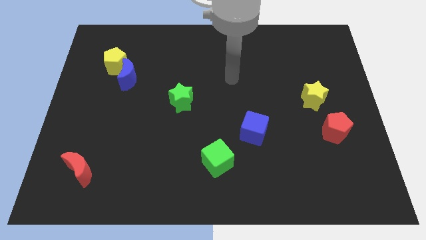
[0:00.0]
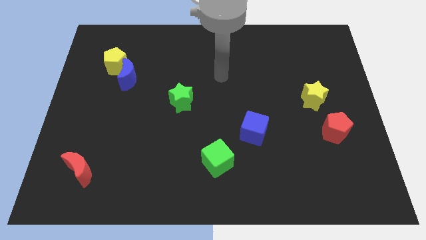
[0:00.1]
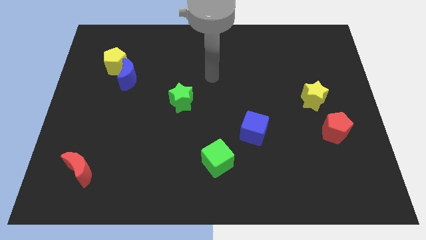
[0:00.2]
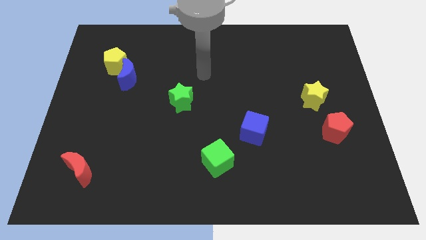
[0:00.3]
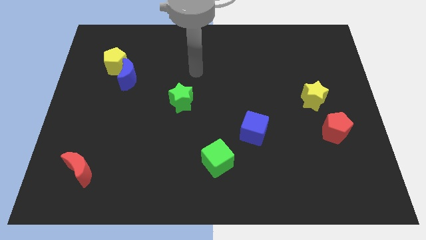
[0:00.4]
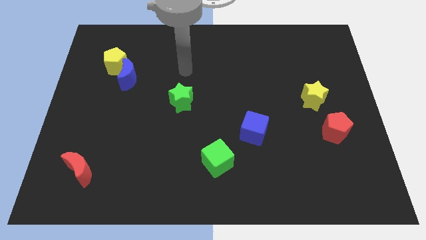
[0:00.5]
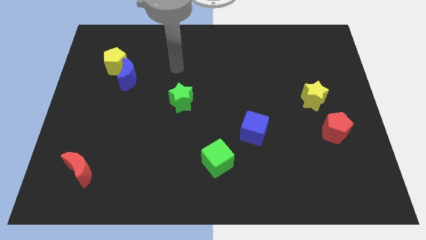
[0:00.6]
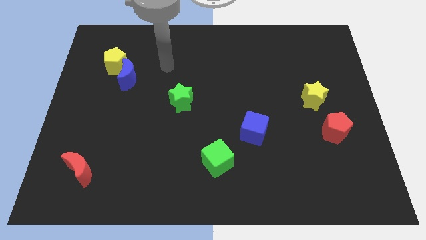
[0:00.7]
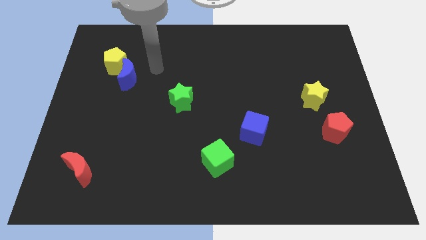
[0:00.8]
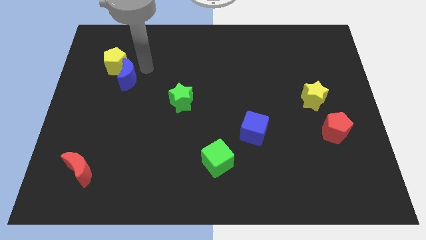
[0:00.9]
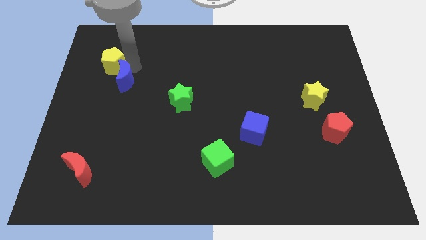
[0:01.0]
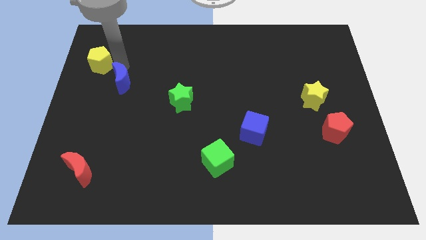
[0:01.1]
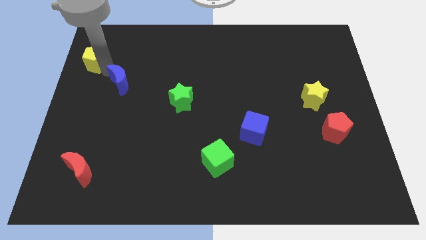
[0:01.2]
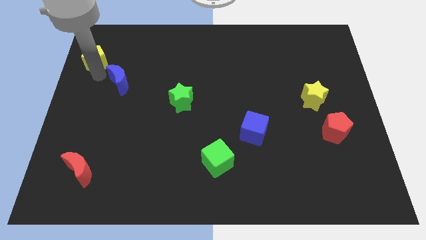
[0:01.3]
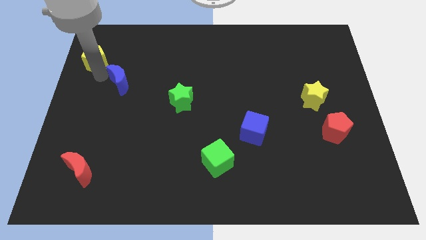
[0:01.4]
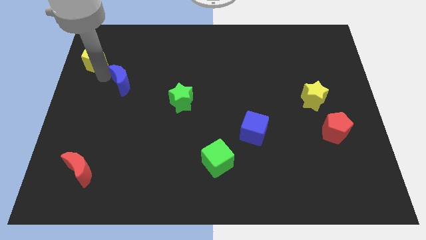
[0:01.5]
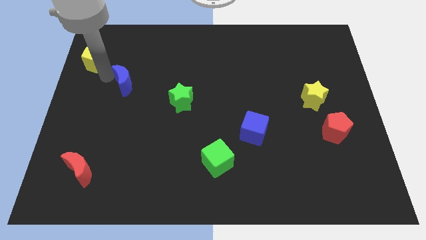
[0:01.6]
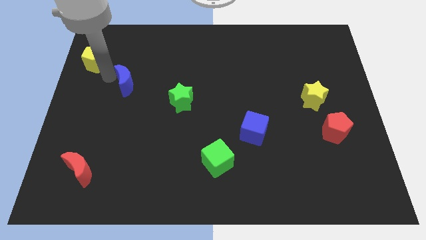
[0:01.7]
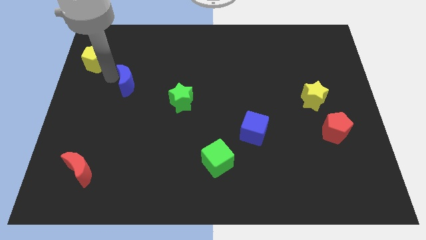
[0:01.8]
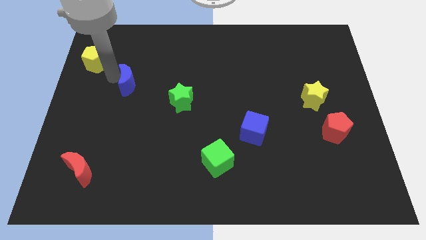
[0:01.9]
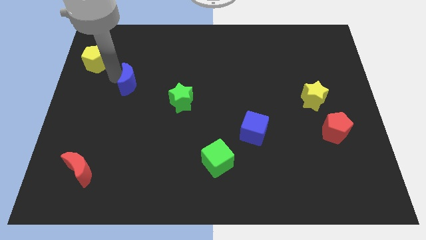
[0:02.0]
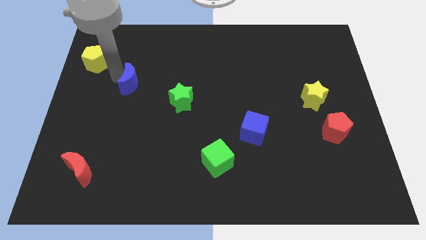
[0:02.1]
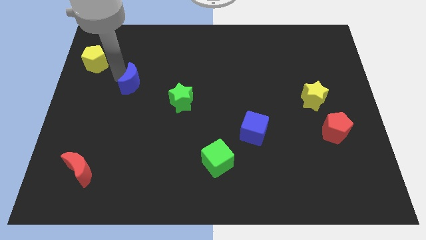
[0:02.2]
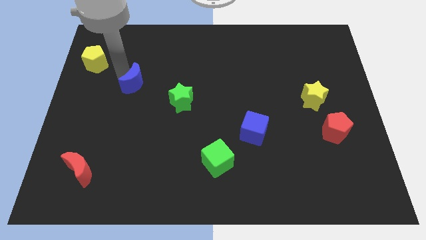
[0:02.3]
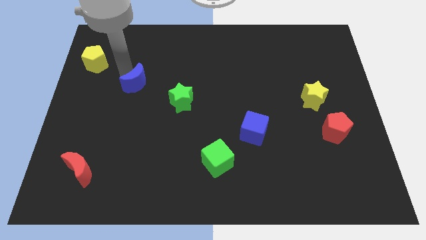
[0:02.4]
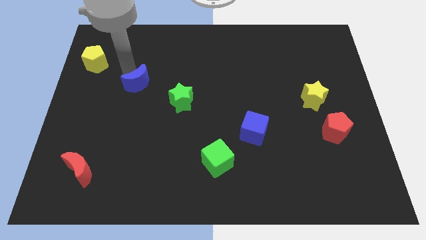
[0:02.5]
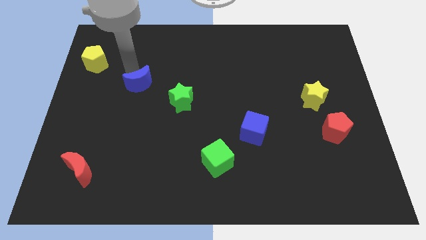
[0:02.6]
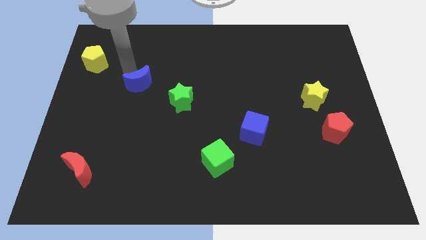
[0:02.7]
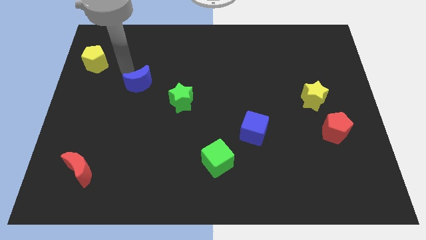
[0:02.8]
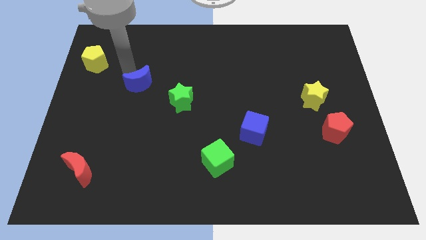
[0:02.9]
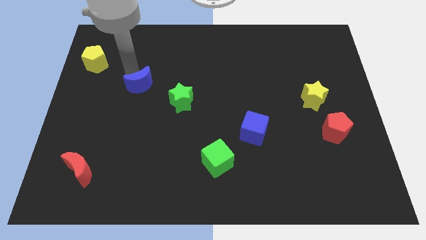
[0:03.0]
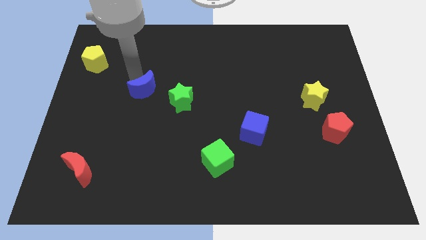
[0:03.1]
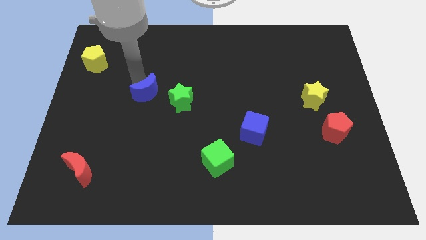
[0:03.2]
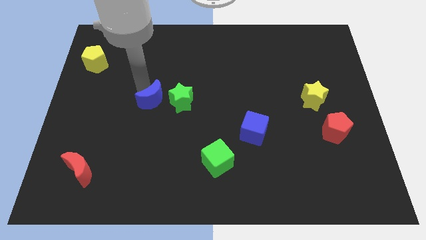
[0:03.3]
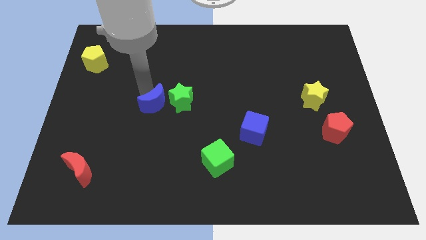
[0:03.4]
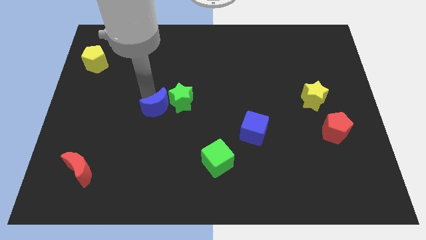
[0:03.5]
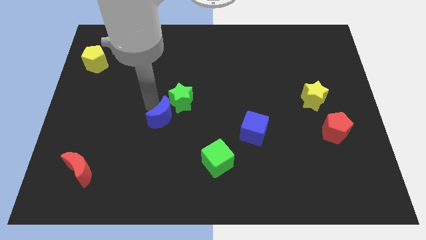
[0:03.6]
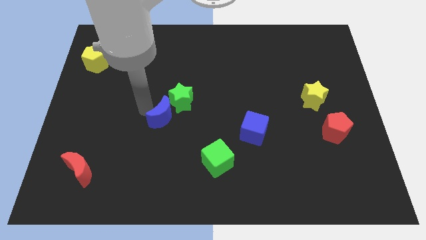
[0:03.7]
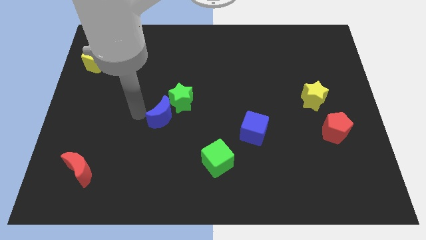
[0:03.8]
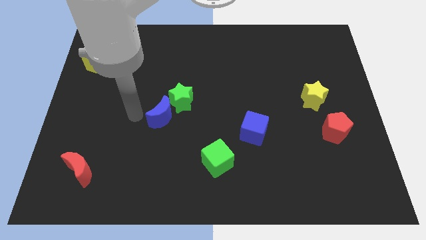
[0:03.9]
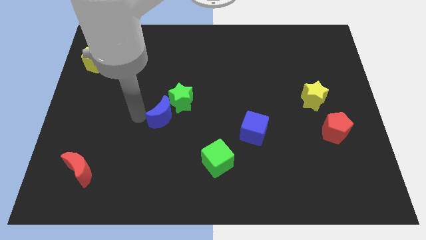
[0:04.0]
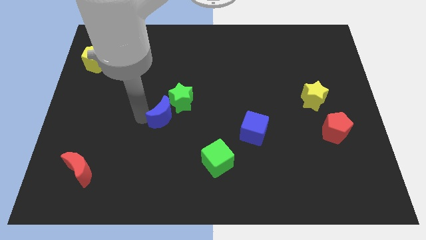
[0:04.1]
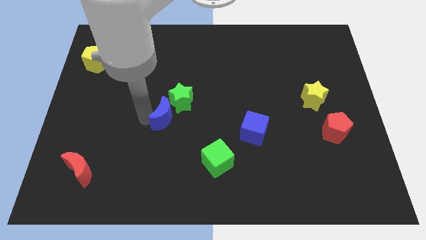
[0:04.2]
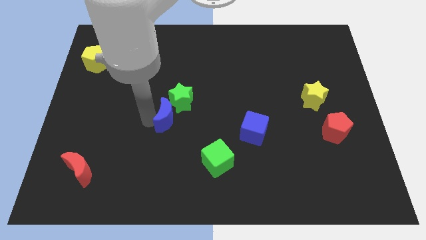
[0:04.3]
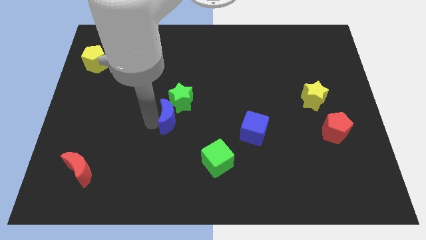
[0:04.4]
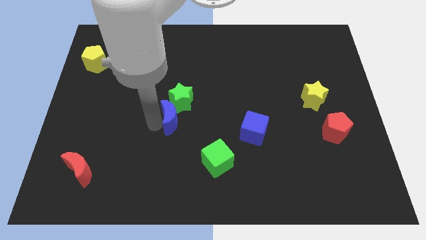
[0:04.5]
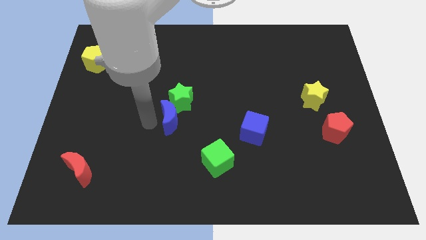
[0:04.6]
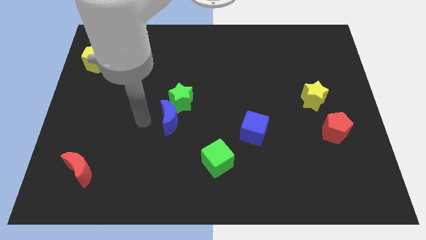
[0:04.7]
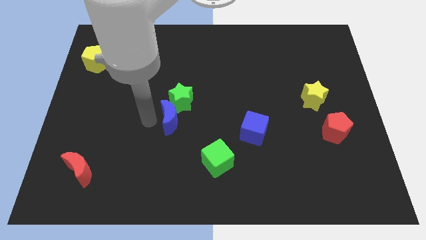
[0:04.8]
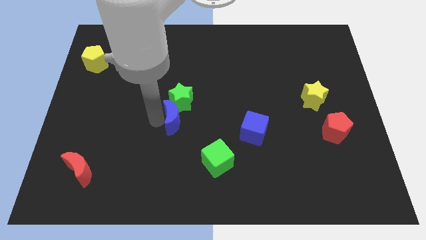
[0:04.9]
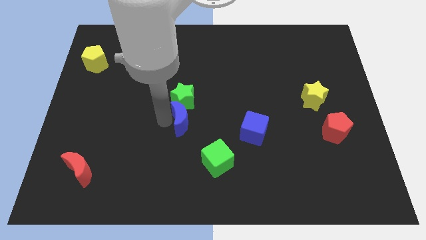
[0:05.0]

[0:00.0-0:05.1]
put the blue moon to the bottom right of the green star

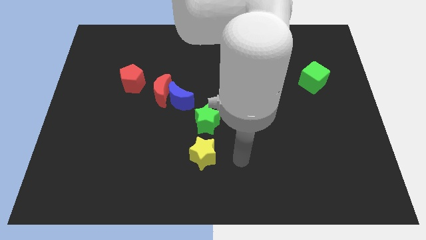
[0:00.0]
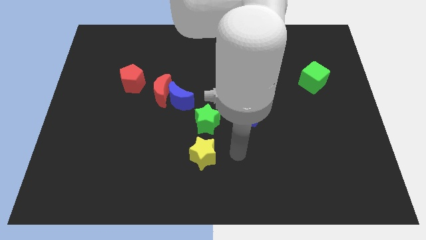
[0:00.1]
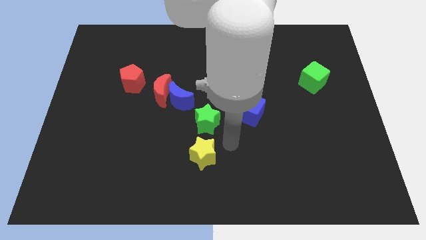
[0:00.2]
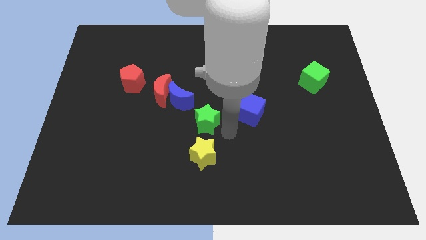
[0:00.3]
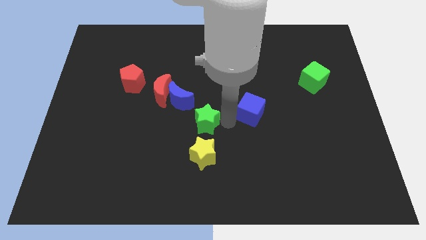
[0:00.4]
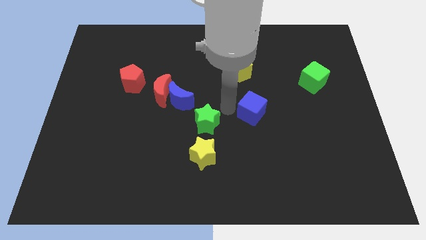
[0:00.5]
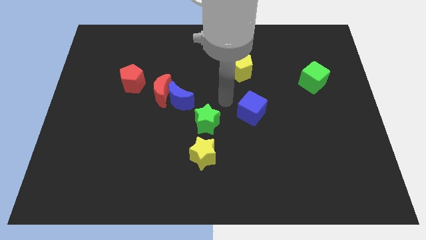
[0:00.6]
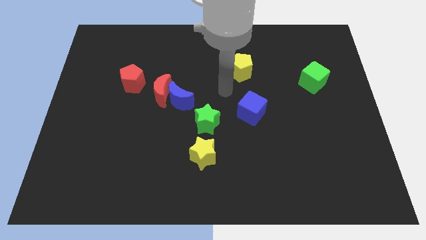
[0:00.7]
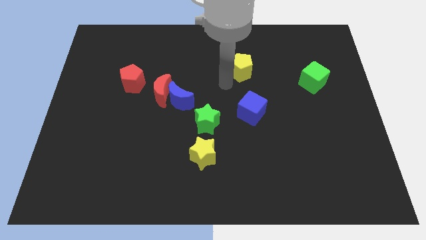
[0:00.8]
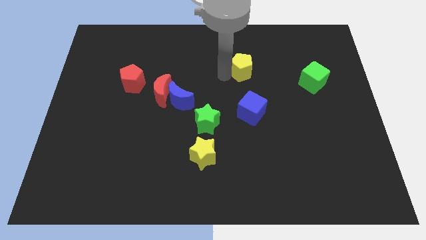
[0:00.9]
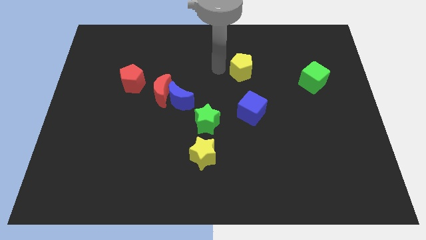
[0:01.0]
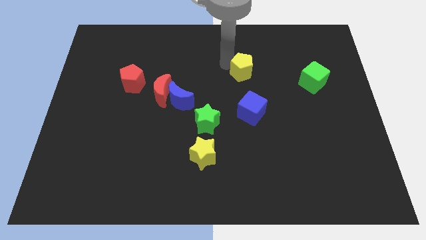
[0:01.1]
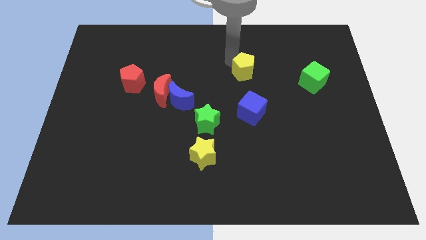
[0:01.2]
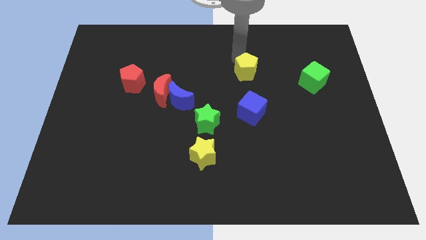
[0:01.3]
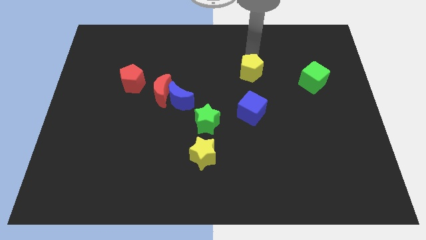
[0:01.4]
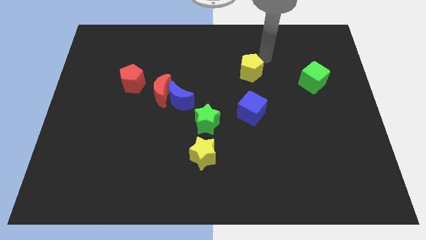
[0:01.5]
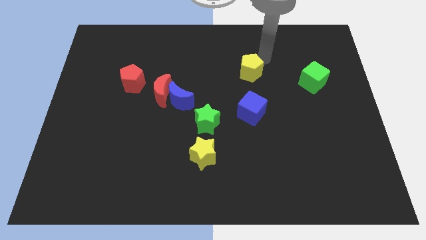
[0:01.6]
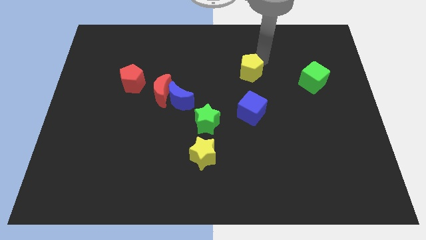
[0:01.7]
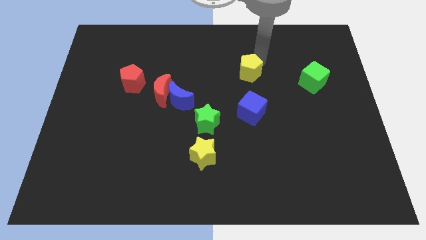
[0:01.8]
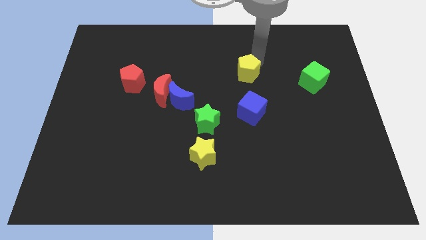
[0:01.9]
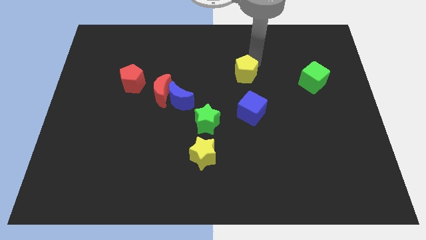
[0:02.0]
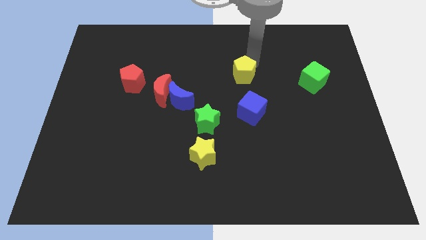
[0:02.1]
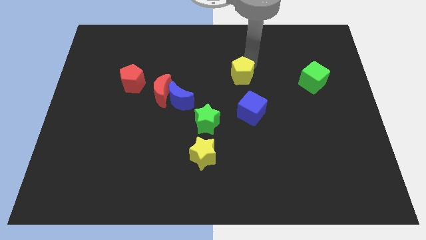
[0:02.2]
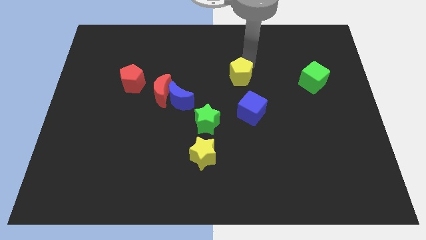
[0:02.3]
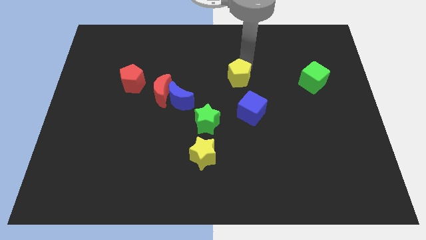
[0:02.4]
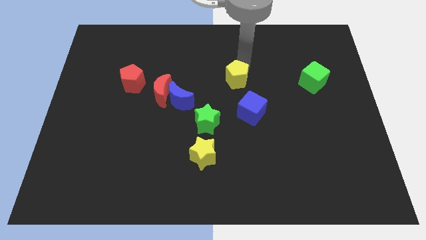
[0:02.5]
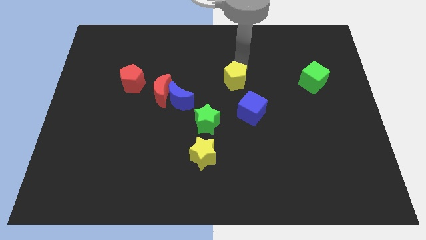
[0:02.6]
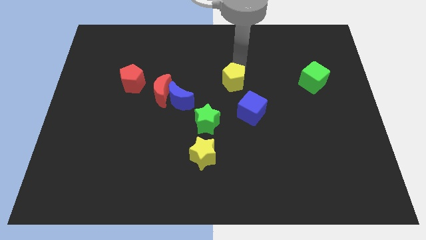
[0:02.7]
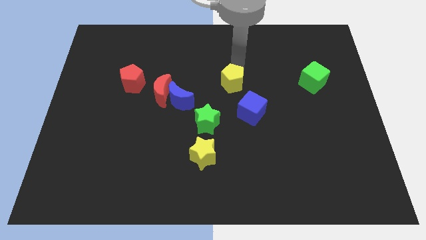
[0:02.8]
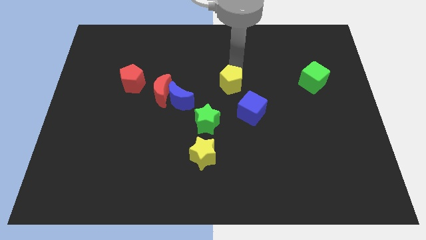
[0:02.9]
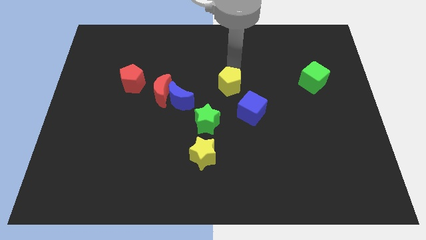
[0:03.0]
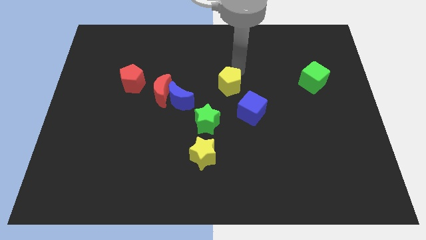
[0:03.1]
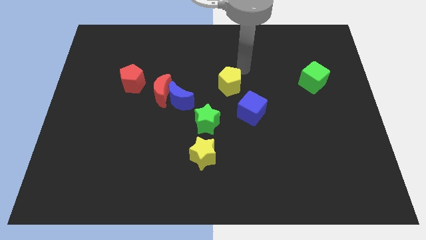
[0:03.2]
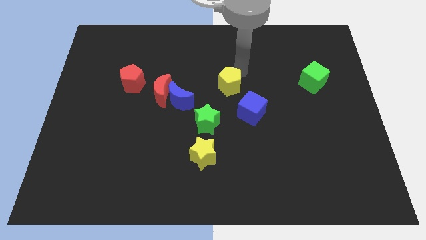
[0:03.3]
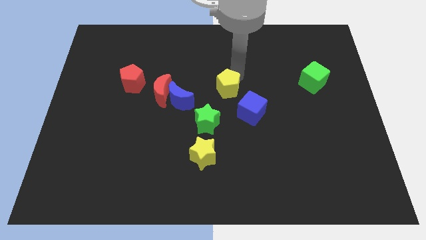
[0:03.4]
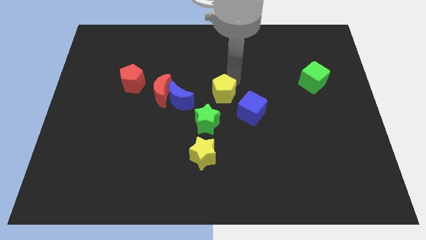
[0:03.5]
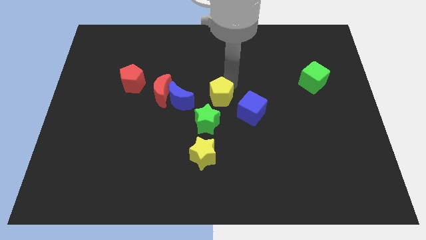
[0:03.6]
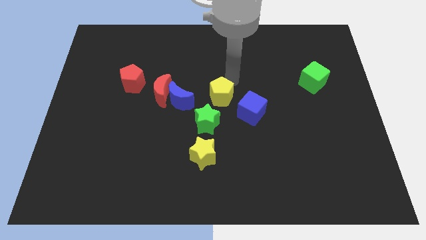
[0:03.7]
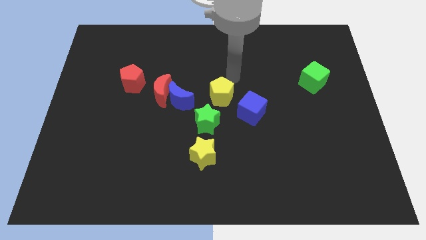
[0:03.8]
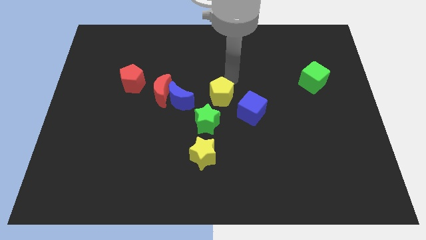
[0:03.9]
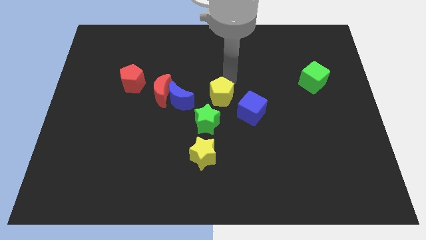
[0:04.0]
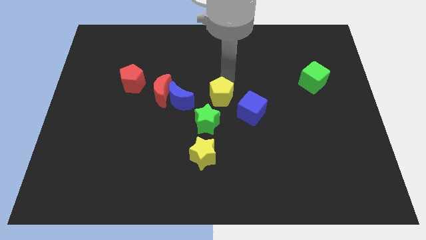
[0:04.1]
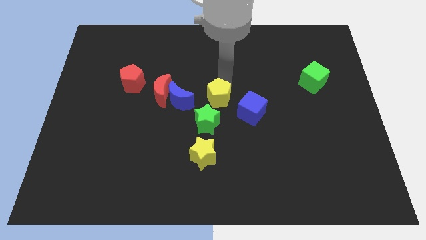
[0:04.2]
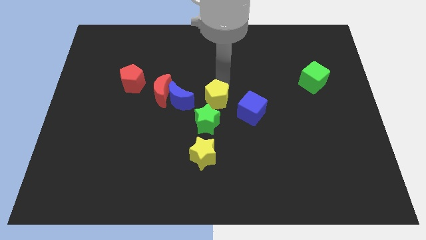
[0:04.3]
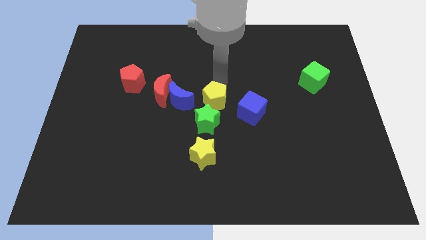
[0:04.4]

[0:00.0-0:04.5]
slide the yellow pentagon to the top of the yellow star
